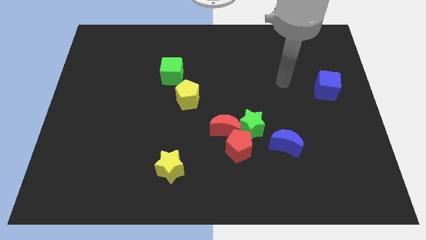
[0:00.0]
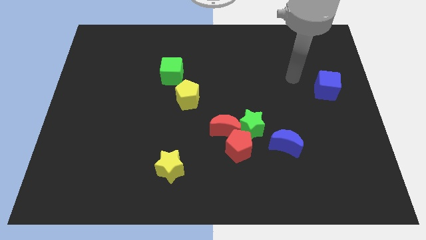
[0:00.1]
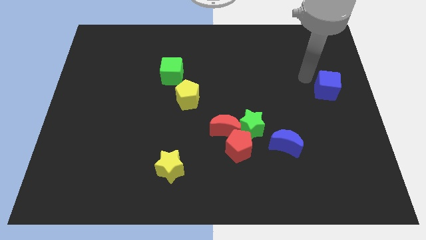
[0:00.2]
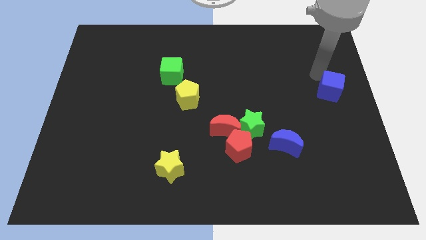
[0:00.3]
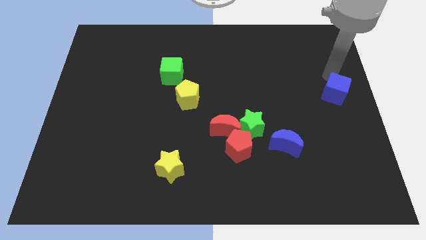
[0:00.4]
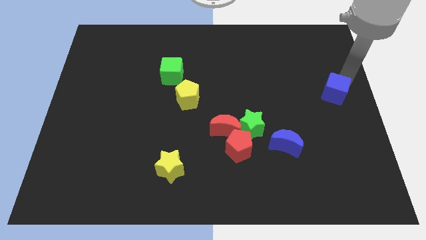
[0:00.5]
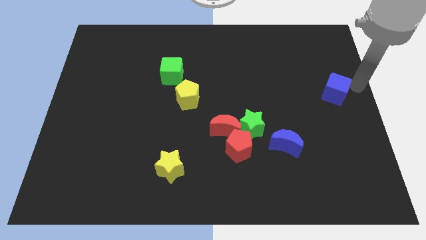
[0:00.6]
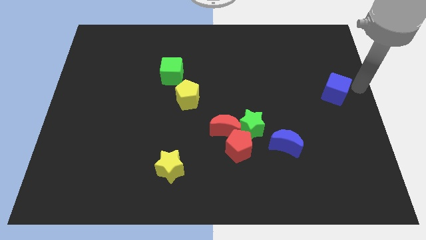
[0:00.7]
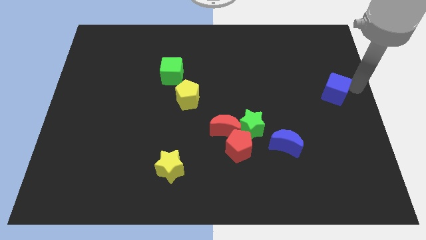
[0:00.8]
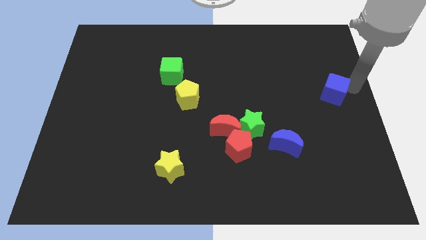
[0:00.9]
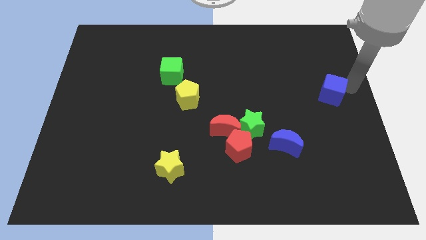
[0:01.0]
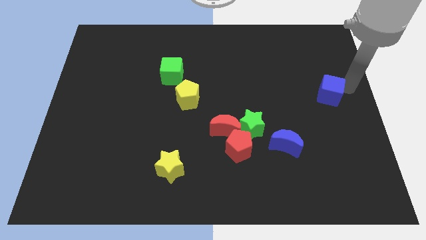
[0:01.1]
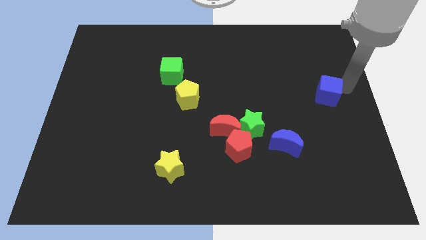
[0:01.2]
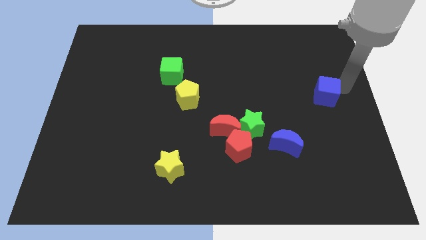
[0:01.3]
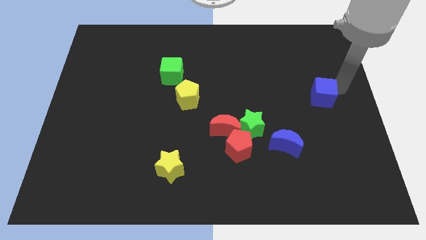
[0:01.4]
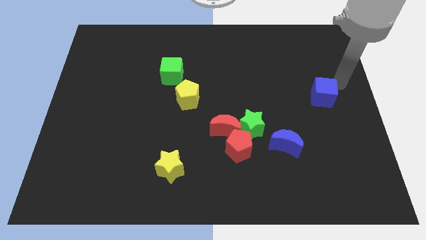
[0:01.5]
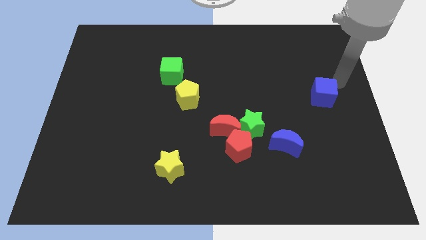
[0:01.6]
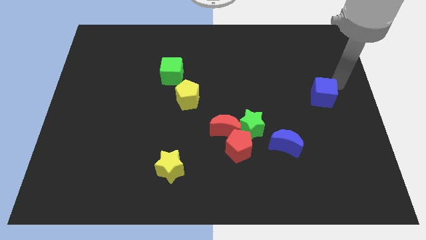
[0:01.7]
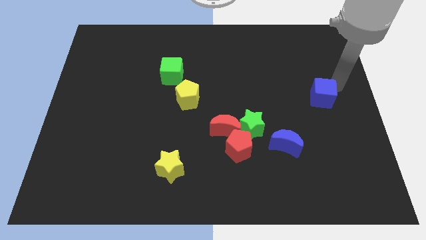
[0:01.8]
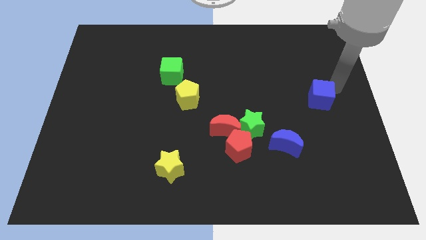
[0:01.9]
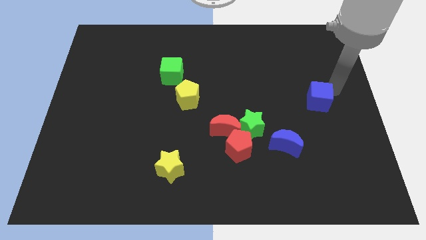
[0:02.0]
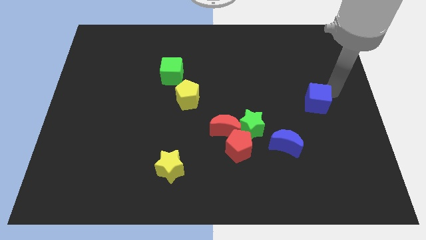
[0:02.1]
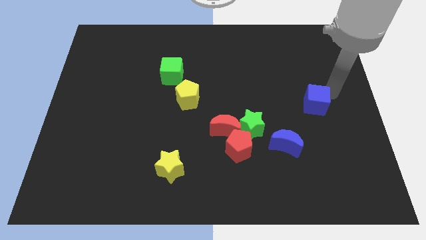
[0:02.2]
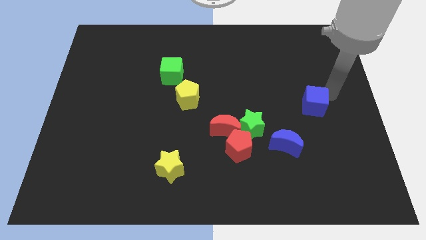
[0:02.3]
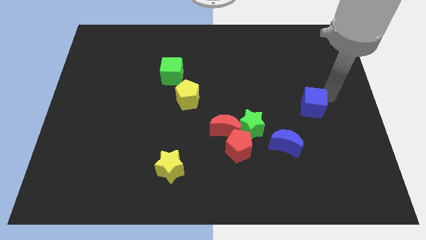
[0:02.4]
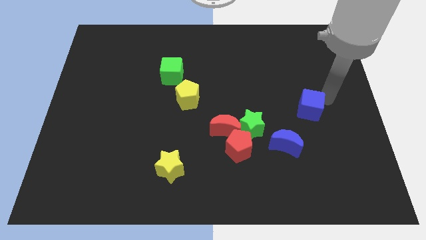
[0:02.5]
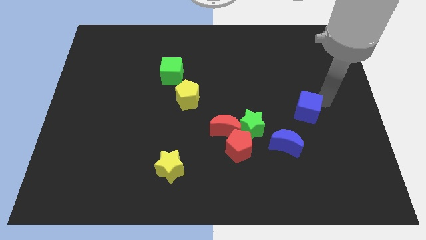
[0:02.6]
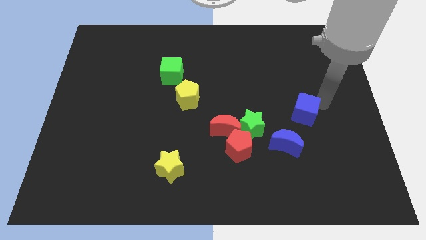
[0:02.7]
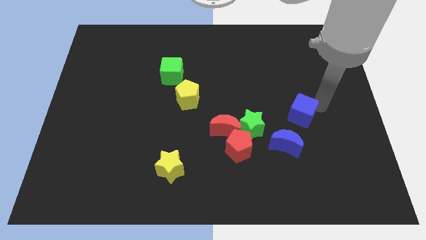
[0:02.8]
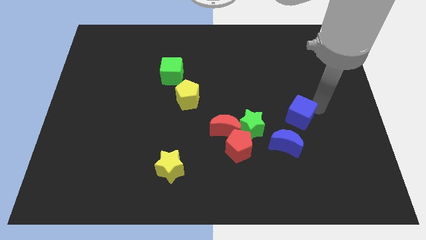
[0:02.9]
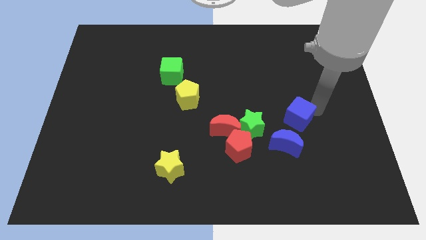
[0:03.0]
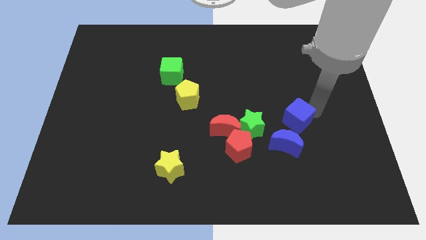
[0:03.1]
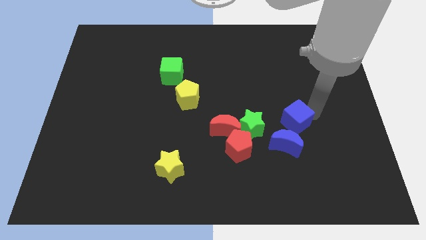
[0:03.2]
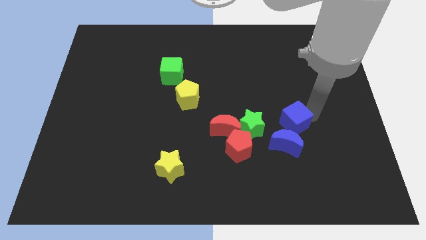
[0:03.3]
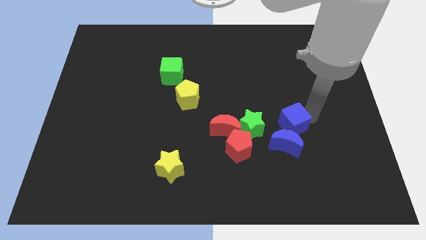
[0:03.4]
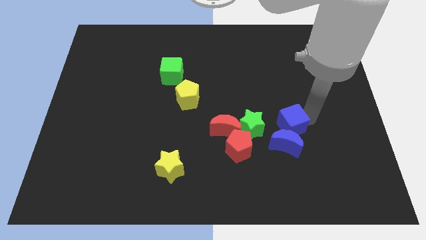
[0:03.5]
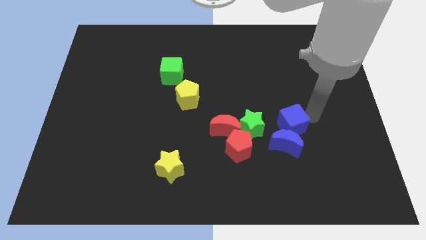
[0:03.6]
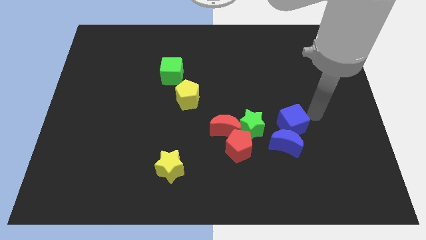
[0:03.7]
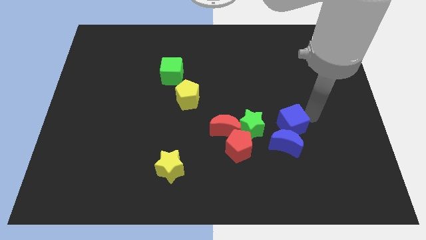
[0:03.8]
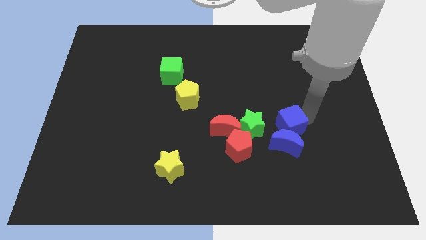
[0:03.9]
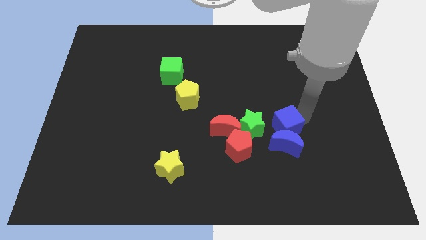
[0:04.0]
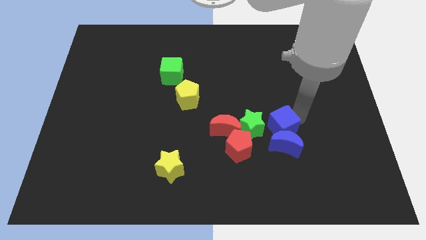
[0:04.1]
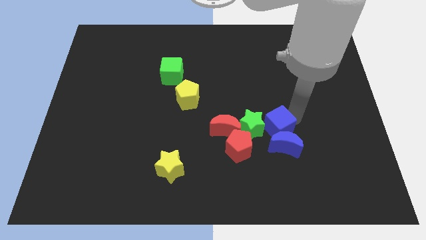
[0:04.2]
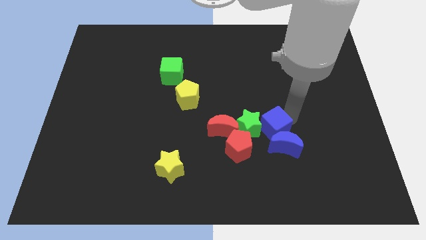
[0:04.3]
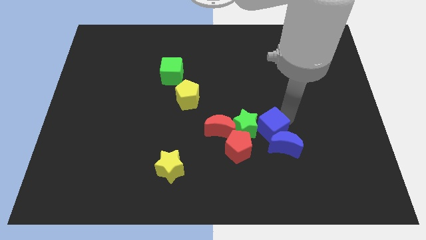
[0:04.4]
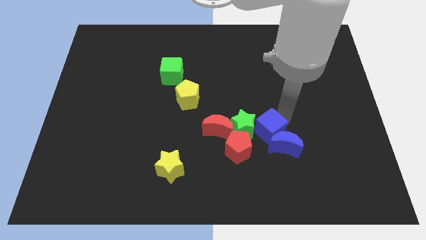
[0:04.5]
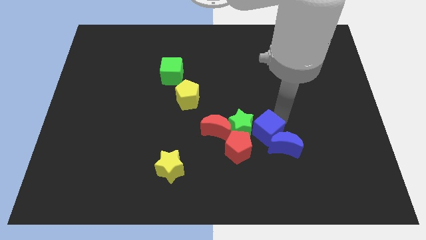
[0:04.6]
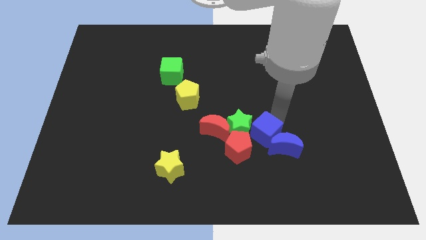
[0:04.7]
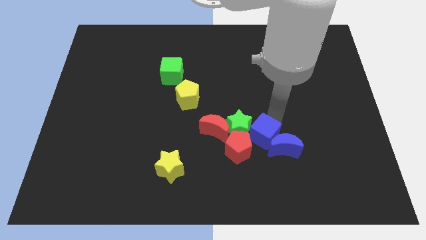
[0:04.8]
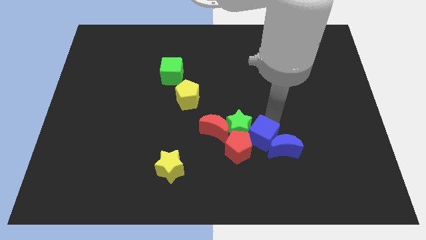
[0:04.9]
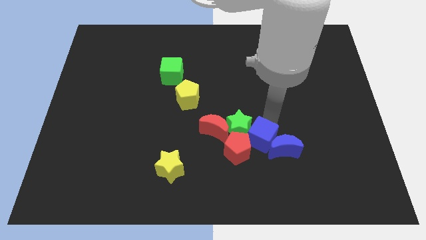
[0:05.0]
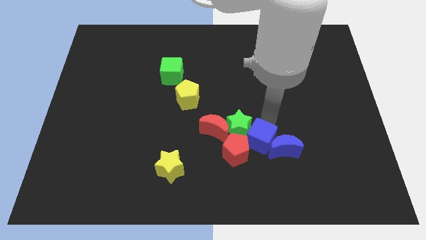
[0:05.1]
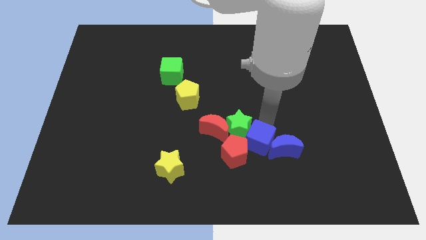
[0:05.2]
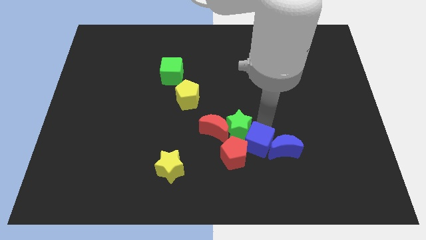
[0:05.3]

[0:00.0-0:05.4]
push the blue cube close to the red pentagon

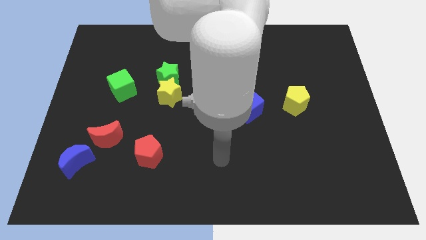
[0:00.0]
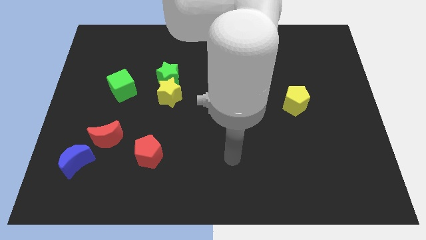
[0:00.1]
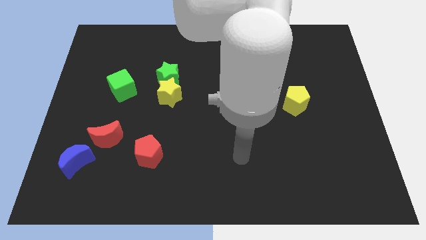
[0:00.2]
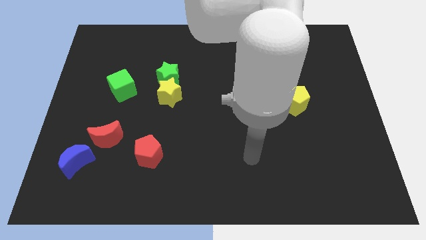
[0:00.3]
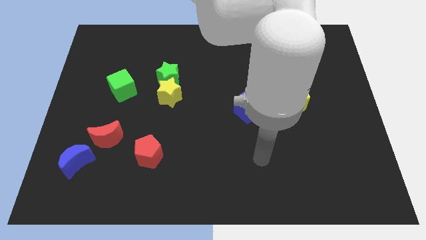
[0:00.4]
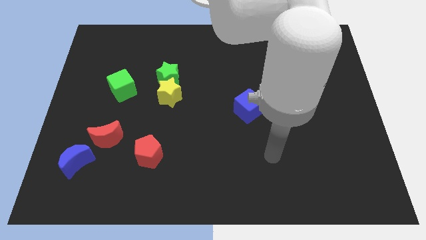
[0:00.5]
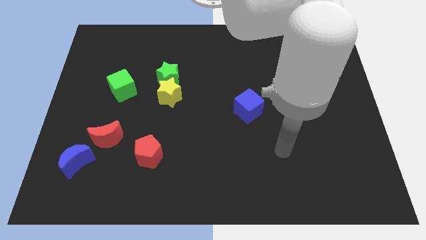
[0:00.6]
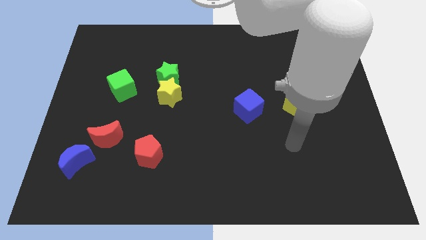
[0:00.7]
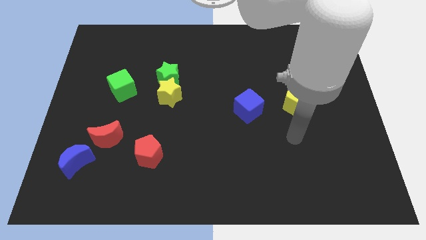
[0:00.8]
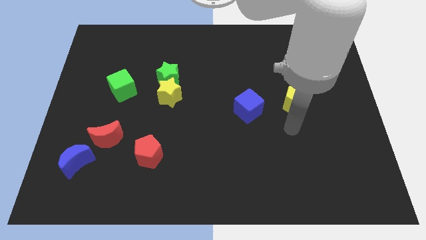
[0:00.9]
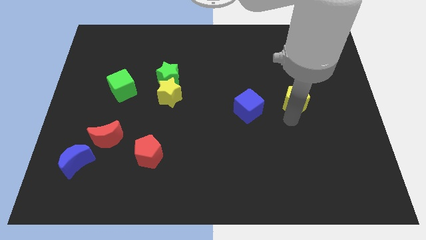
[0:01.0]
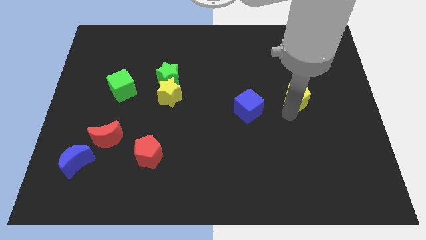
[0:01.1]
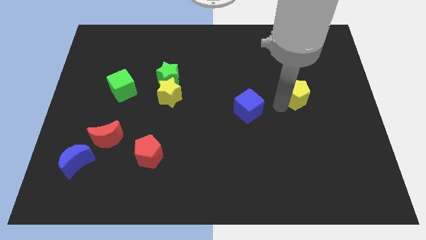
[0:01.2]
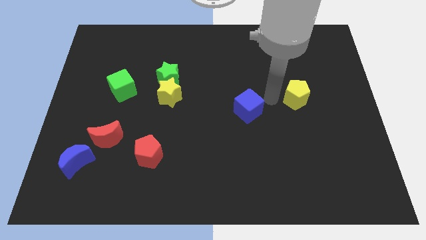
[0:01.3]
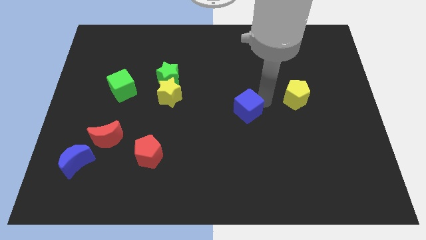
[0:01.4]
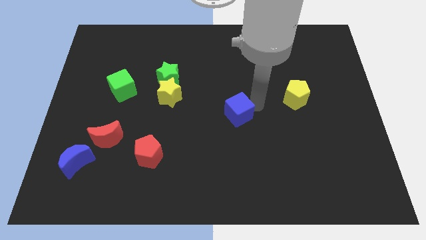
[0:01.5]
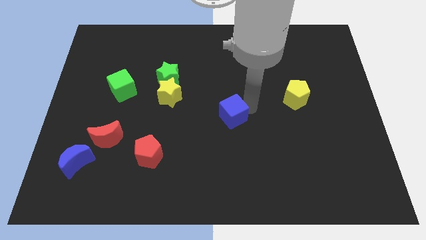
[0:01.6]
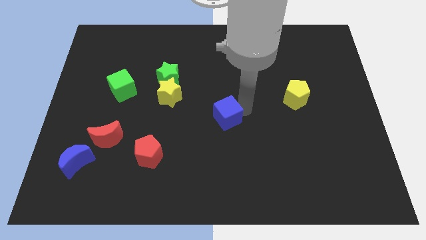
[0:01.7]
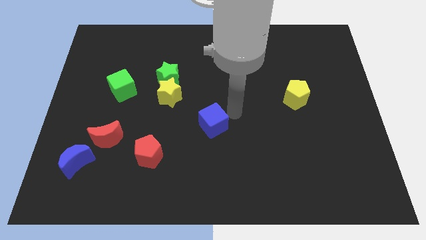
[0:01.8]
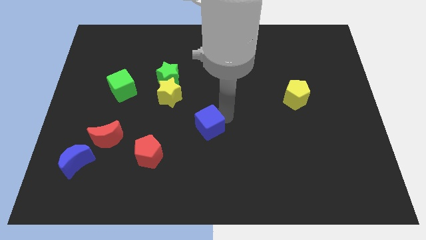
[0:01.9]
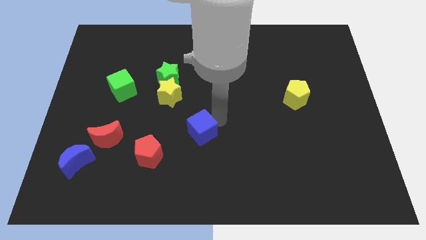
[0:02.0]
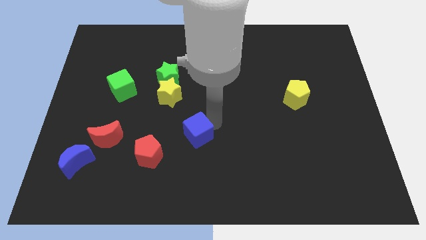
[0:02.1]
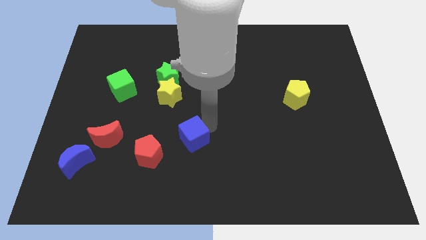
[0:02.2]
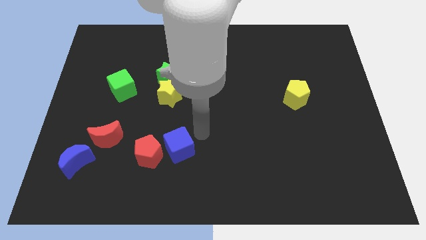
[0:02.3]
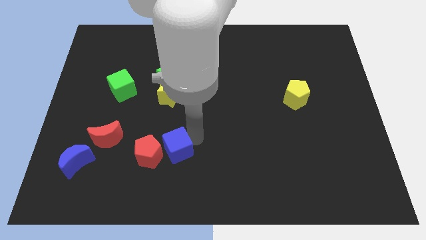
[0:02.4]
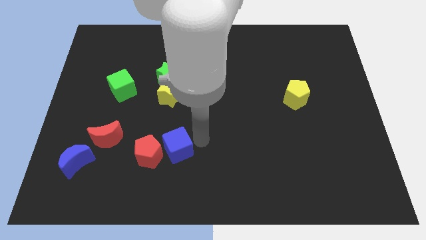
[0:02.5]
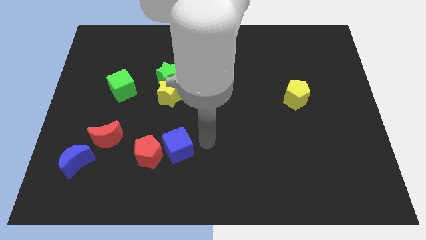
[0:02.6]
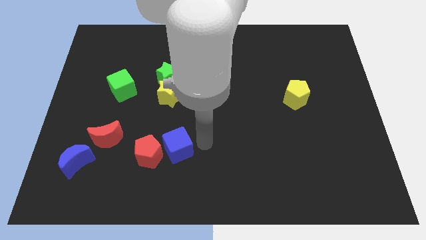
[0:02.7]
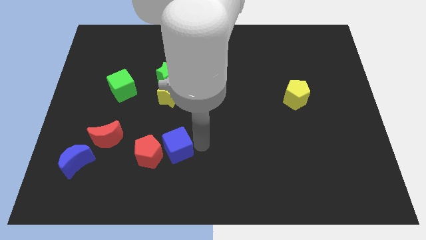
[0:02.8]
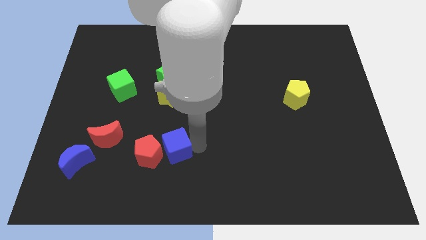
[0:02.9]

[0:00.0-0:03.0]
put the blue cube close to the red pentagon
